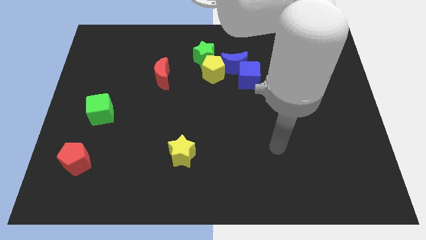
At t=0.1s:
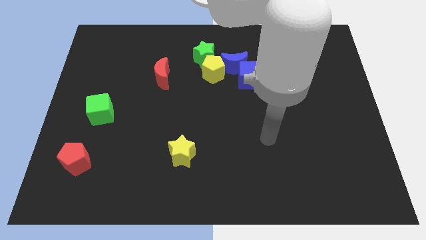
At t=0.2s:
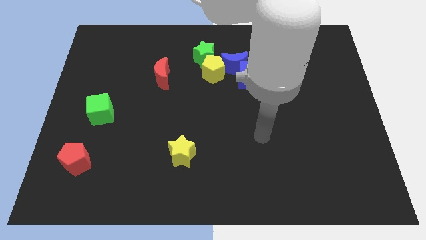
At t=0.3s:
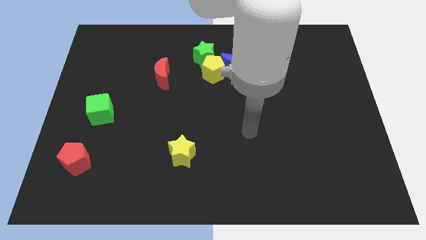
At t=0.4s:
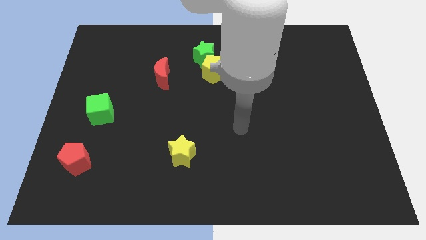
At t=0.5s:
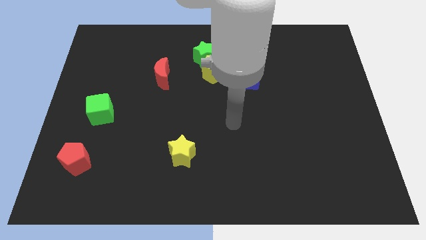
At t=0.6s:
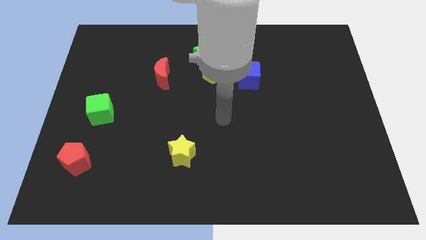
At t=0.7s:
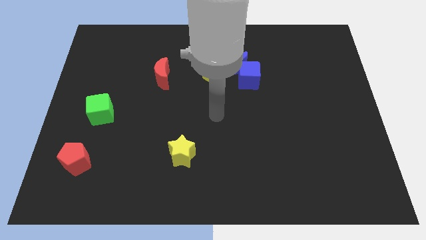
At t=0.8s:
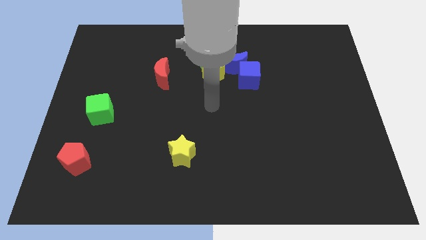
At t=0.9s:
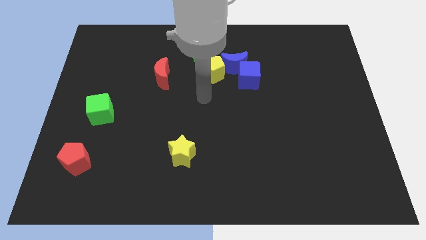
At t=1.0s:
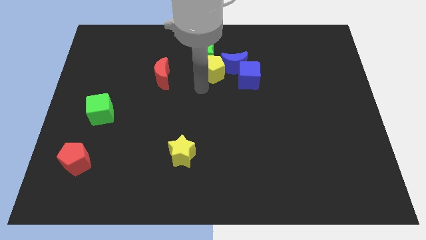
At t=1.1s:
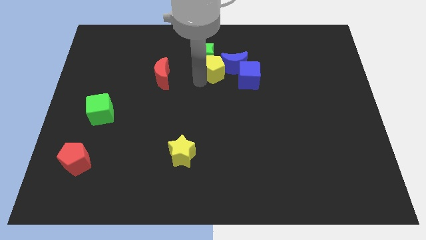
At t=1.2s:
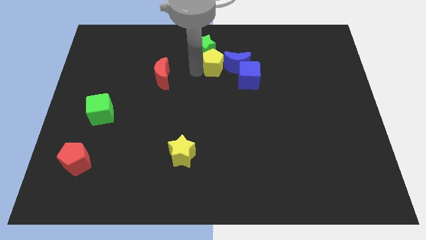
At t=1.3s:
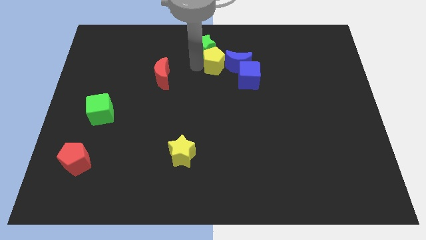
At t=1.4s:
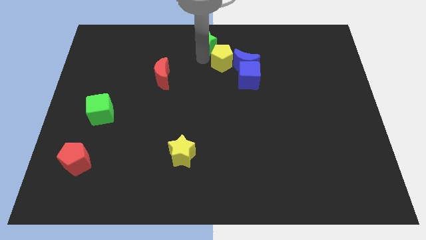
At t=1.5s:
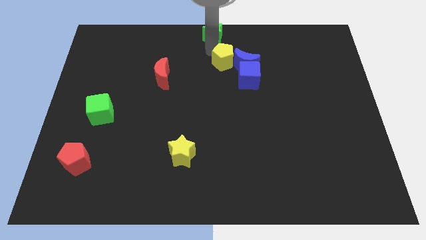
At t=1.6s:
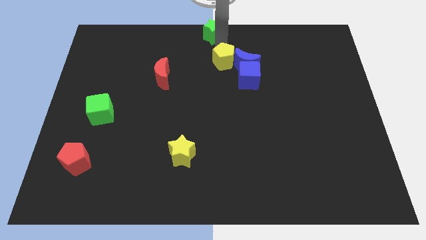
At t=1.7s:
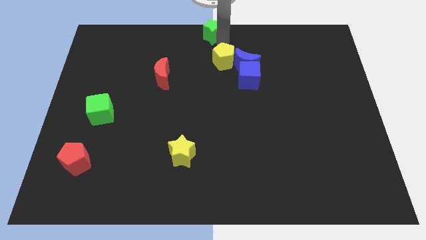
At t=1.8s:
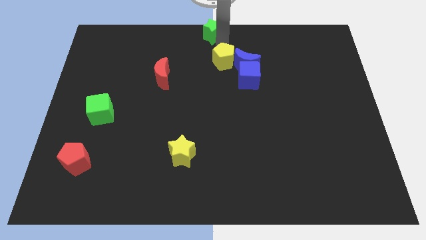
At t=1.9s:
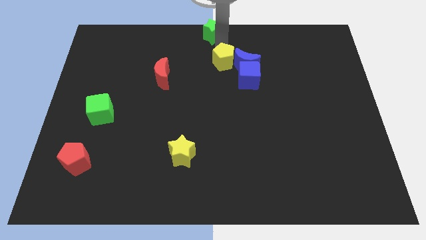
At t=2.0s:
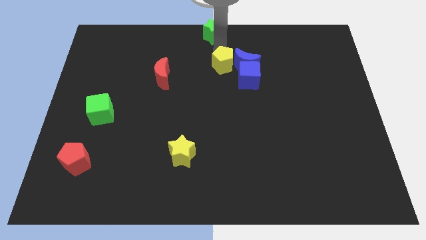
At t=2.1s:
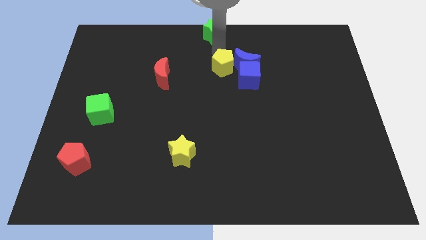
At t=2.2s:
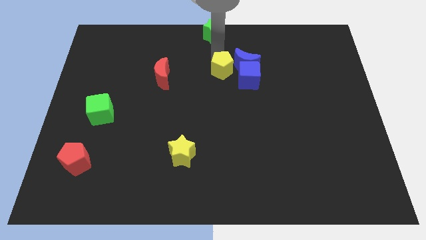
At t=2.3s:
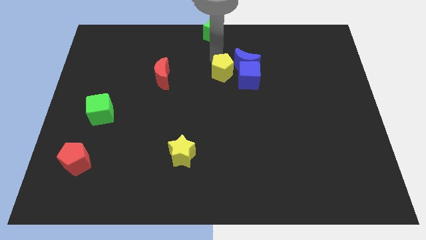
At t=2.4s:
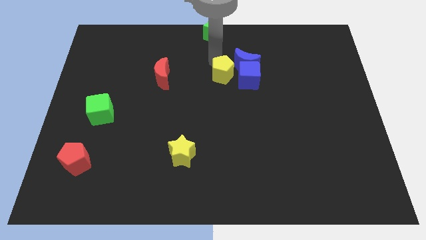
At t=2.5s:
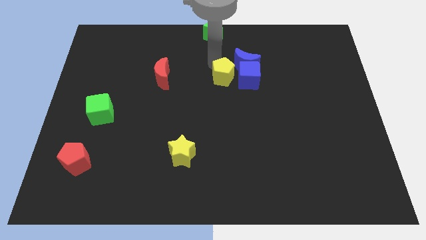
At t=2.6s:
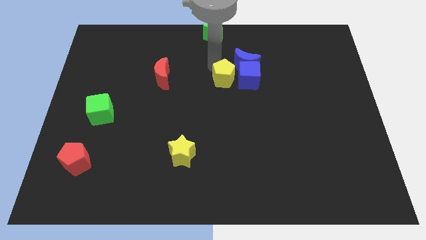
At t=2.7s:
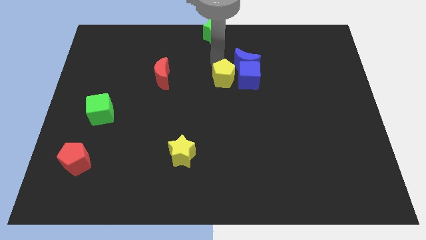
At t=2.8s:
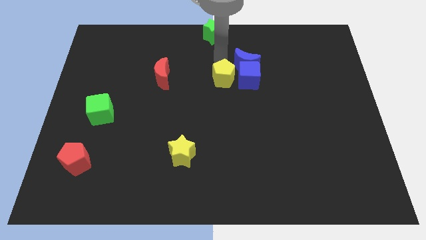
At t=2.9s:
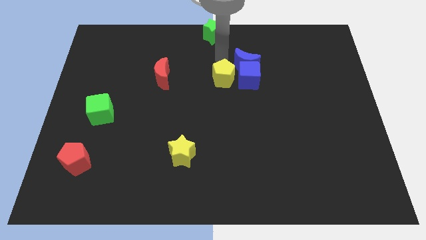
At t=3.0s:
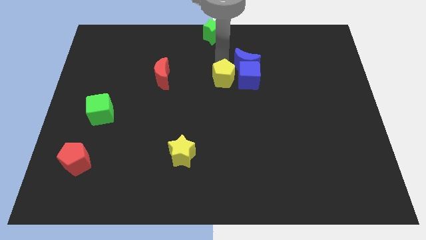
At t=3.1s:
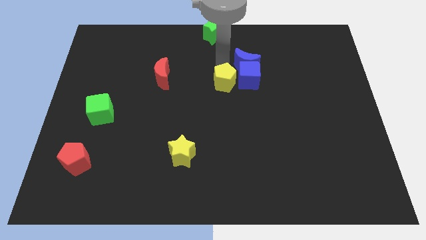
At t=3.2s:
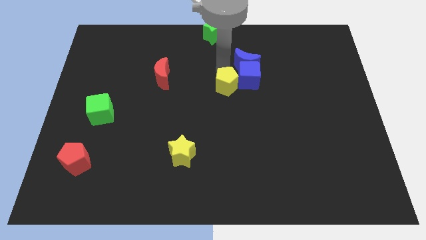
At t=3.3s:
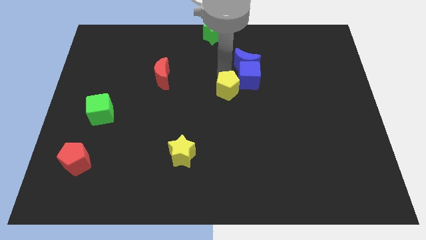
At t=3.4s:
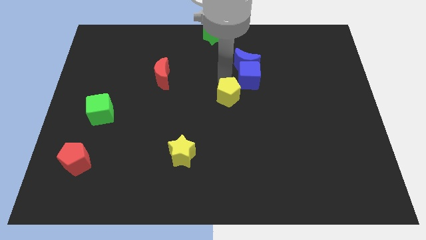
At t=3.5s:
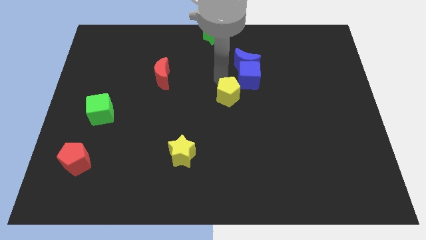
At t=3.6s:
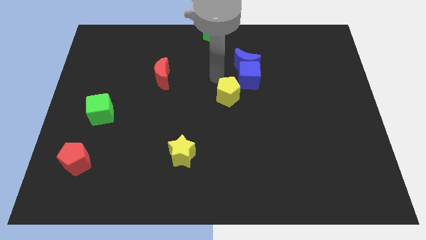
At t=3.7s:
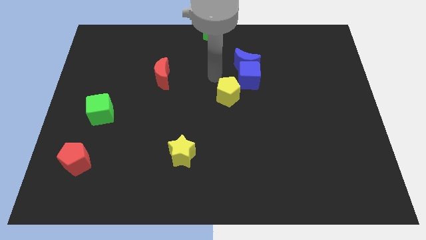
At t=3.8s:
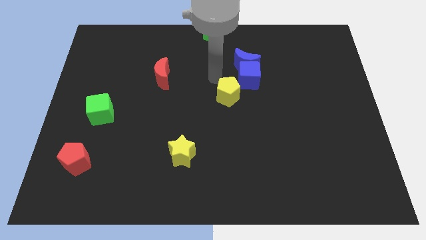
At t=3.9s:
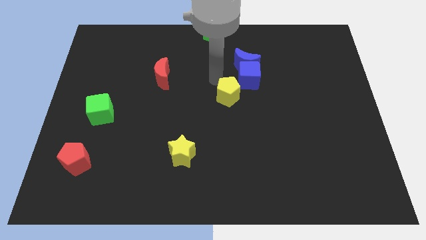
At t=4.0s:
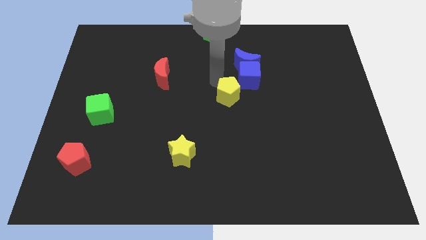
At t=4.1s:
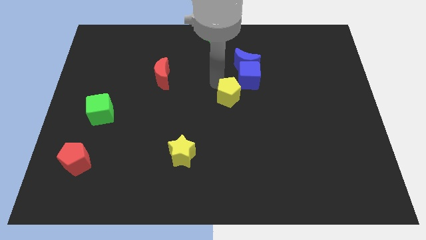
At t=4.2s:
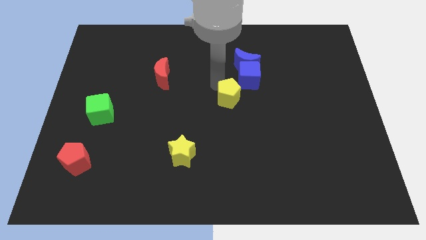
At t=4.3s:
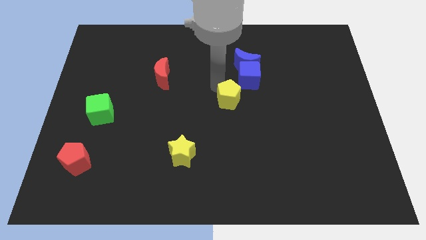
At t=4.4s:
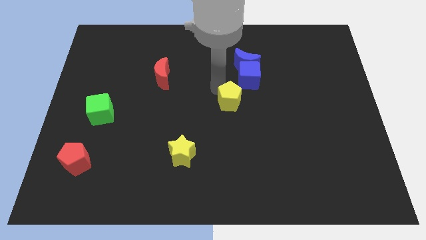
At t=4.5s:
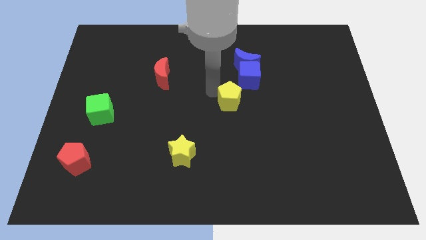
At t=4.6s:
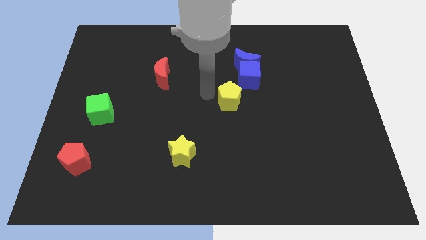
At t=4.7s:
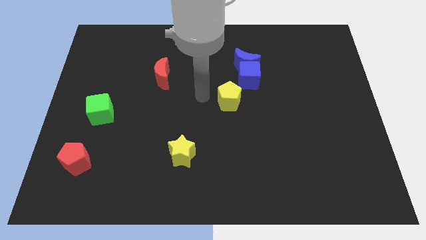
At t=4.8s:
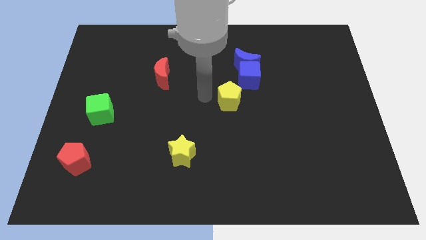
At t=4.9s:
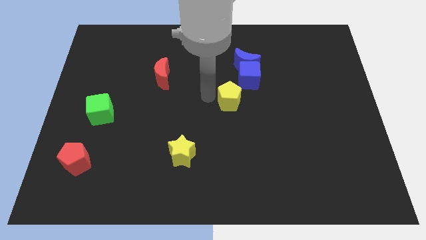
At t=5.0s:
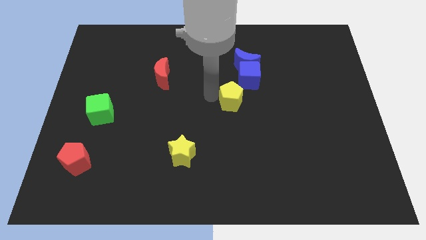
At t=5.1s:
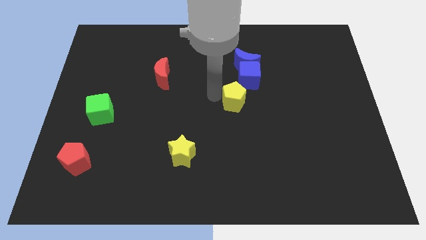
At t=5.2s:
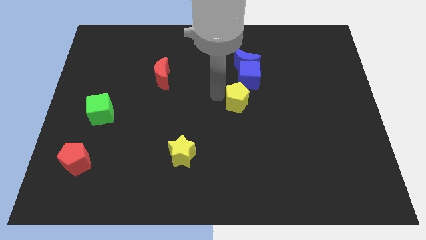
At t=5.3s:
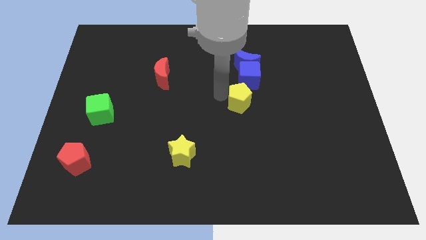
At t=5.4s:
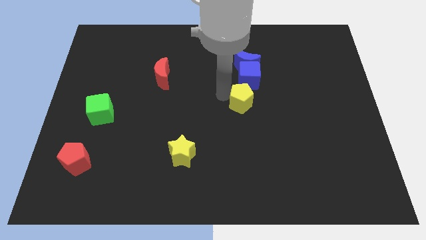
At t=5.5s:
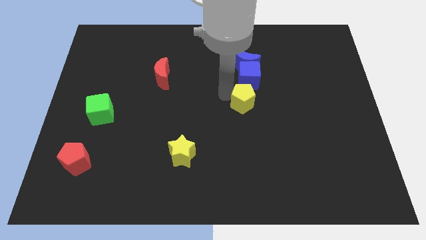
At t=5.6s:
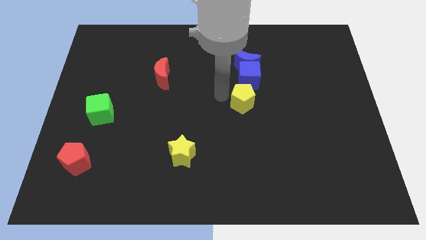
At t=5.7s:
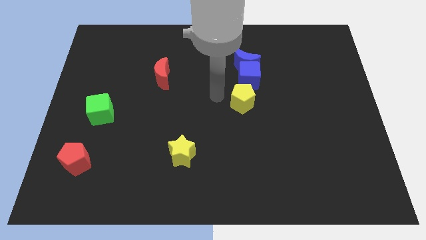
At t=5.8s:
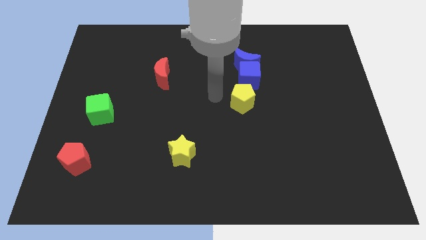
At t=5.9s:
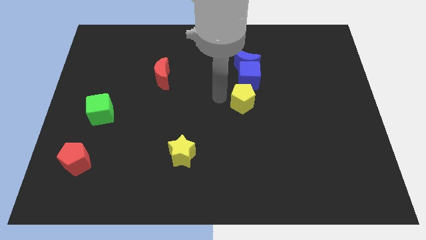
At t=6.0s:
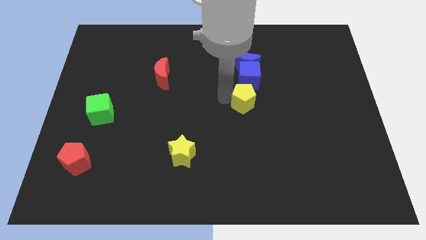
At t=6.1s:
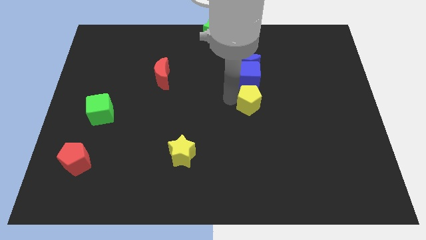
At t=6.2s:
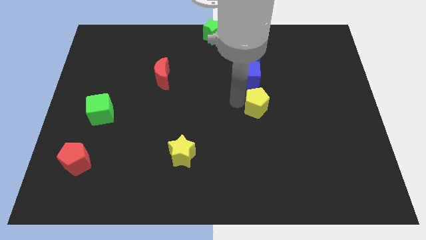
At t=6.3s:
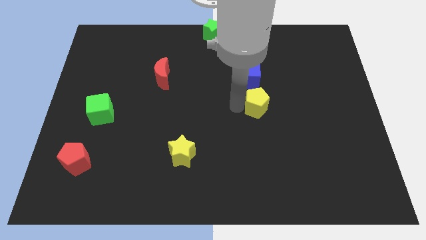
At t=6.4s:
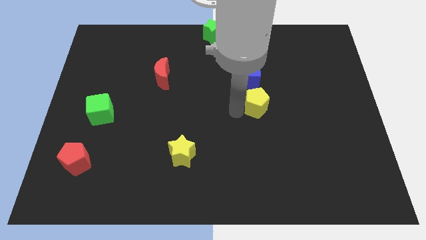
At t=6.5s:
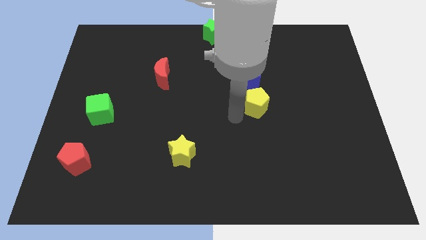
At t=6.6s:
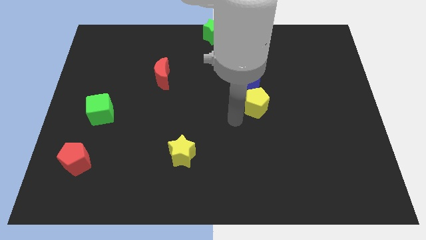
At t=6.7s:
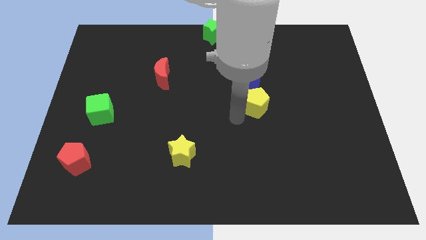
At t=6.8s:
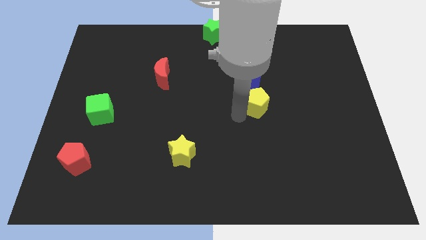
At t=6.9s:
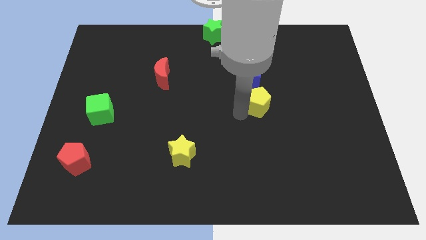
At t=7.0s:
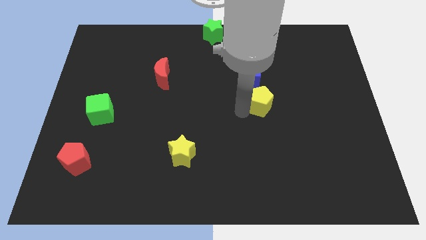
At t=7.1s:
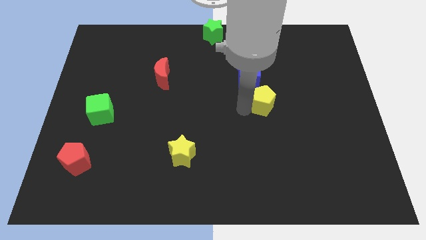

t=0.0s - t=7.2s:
slide the yellow pentagon right a little bit

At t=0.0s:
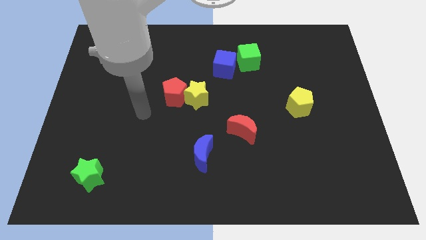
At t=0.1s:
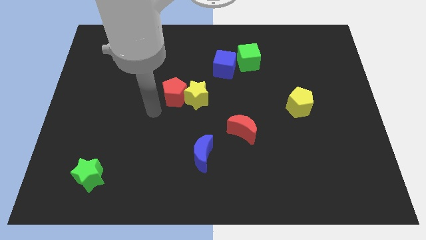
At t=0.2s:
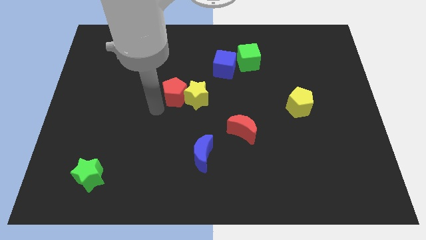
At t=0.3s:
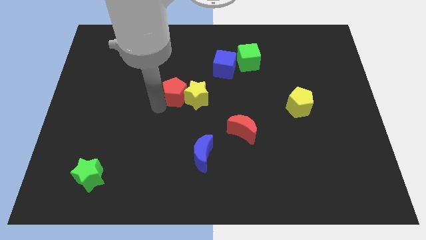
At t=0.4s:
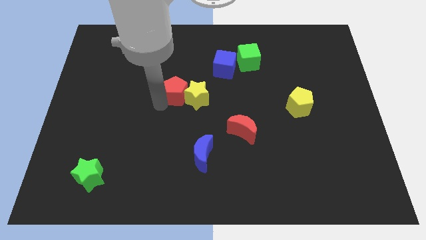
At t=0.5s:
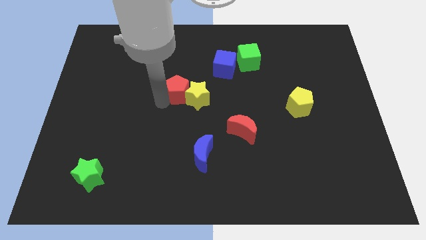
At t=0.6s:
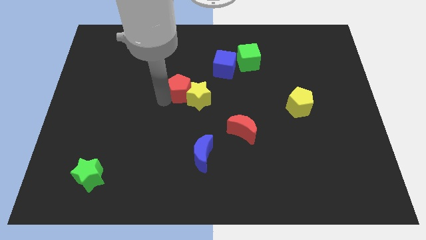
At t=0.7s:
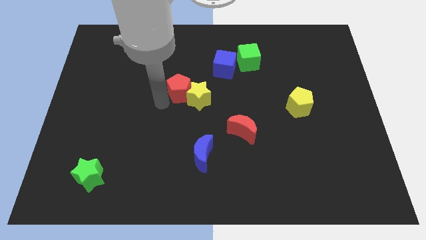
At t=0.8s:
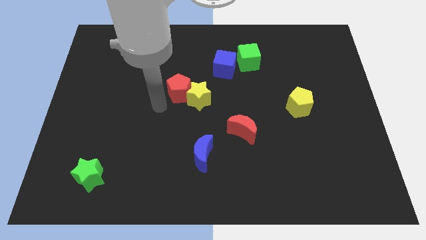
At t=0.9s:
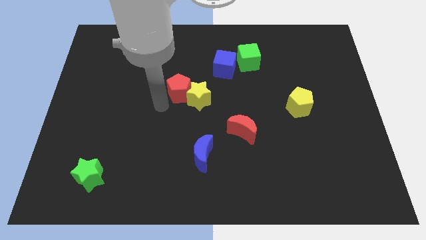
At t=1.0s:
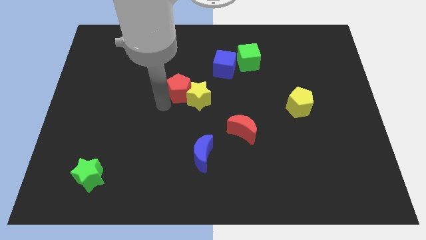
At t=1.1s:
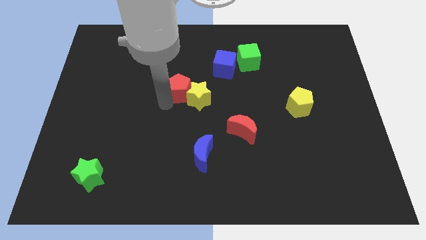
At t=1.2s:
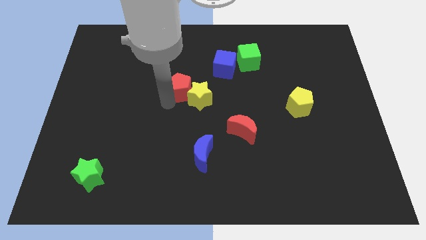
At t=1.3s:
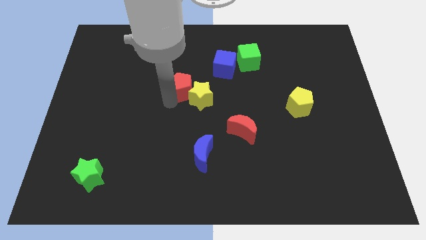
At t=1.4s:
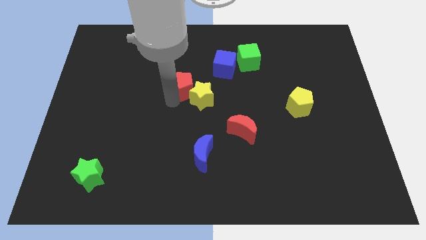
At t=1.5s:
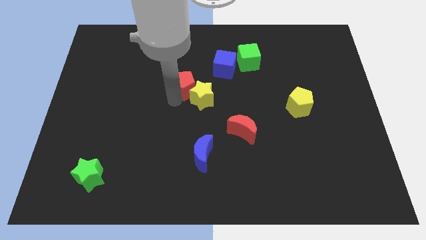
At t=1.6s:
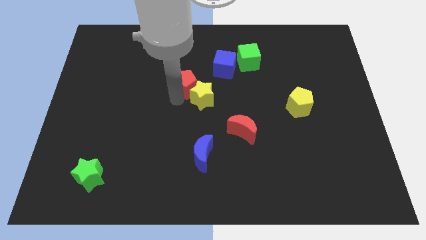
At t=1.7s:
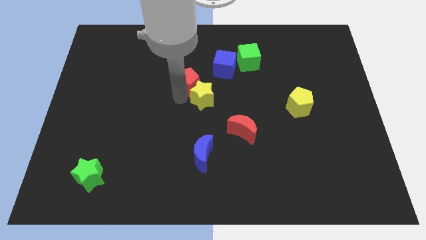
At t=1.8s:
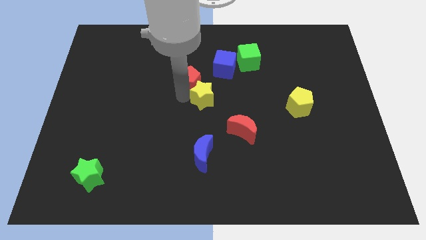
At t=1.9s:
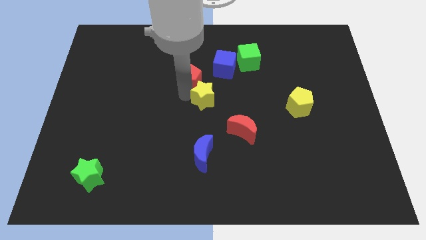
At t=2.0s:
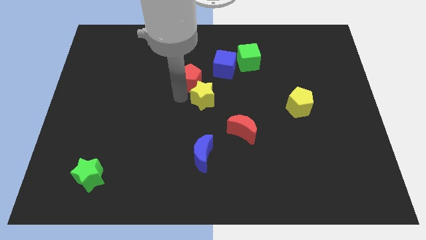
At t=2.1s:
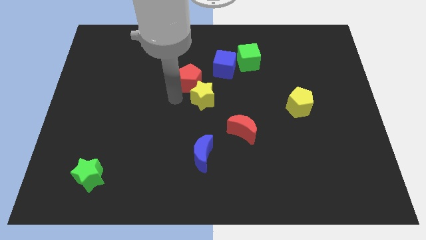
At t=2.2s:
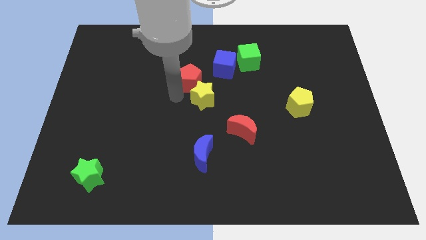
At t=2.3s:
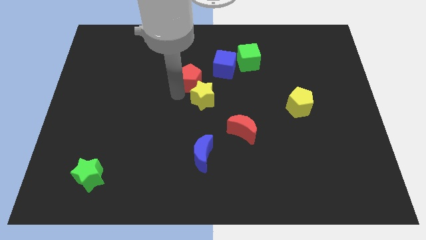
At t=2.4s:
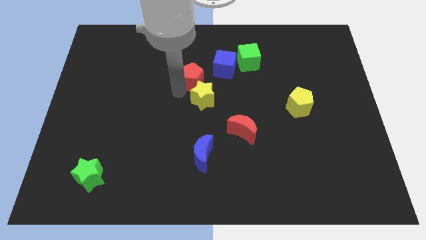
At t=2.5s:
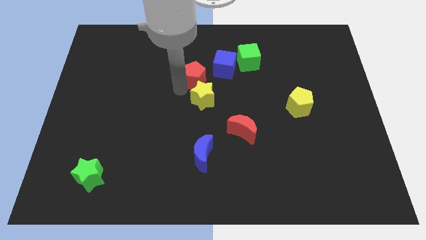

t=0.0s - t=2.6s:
slightly push the red pentagon up and to the right
